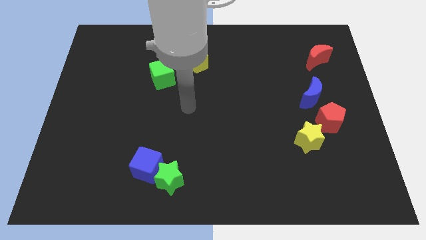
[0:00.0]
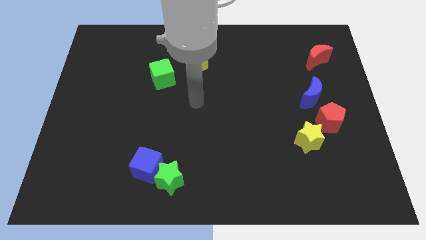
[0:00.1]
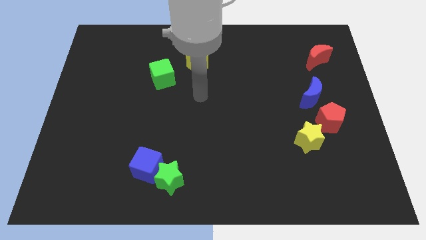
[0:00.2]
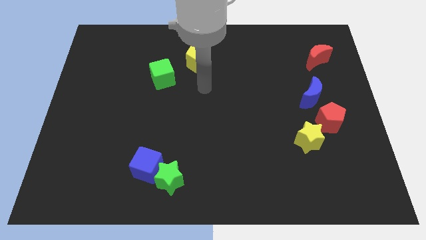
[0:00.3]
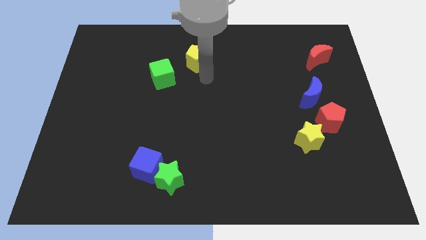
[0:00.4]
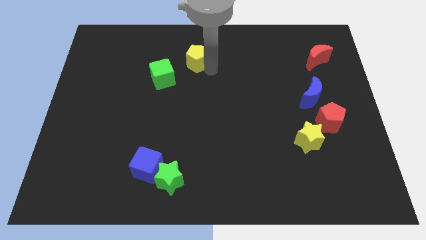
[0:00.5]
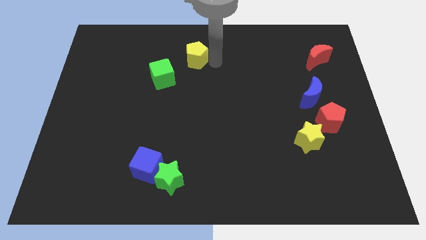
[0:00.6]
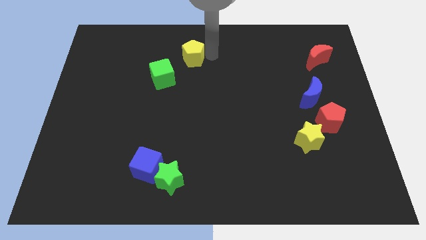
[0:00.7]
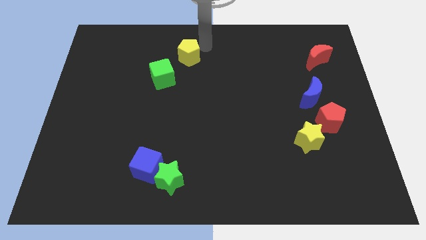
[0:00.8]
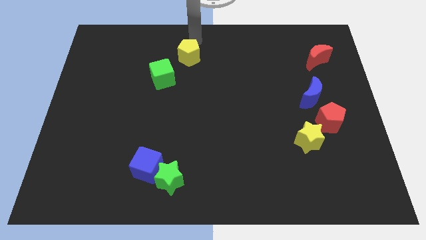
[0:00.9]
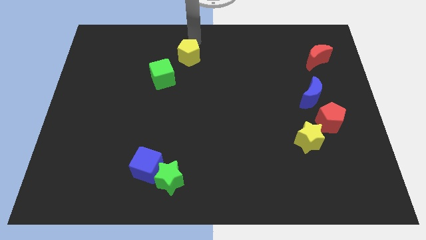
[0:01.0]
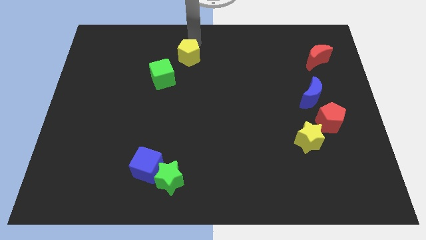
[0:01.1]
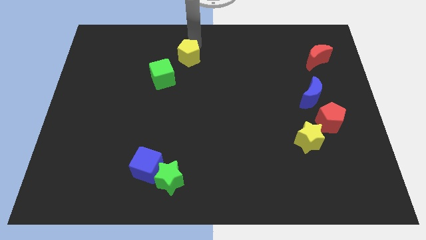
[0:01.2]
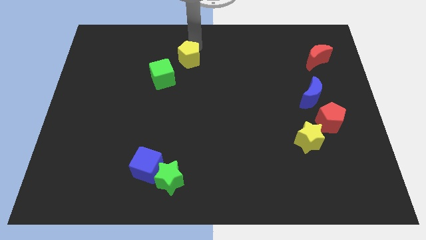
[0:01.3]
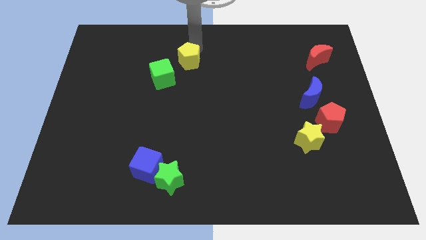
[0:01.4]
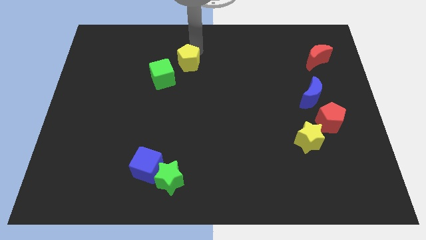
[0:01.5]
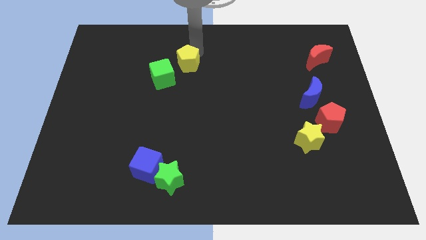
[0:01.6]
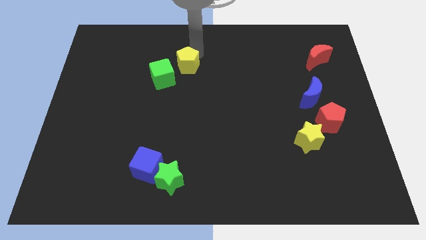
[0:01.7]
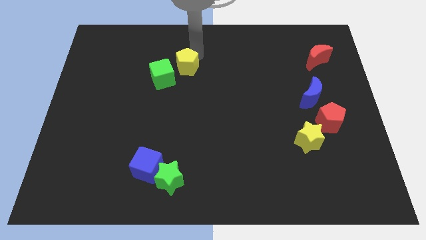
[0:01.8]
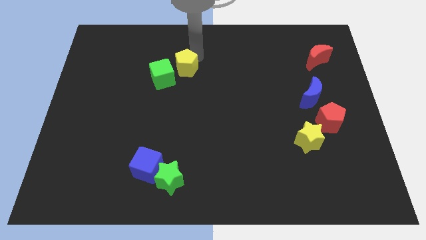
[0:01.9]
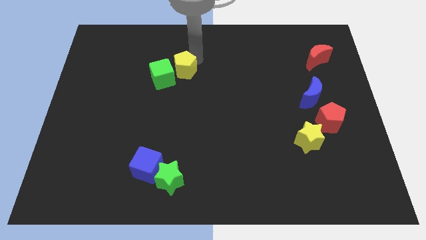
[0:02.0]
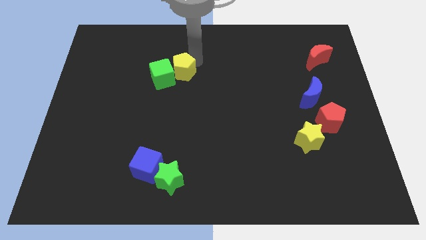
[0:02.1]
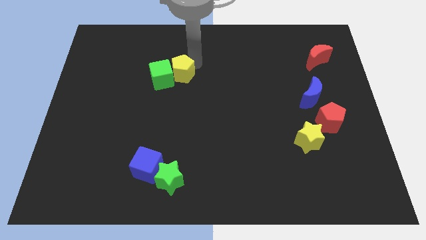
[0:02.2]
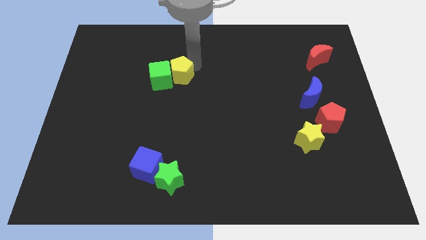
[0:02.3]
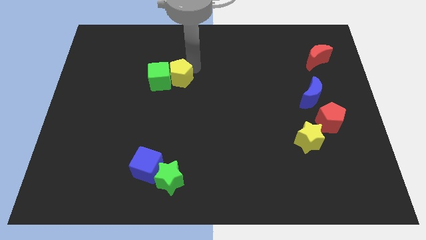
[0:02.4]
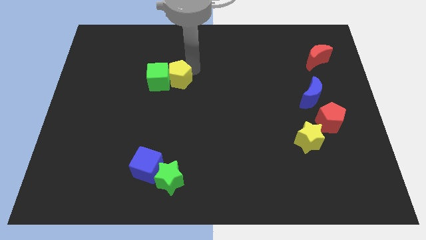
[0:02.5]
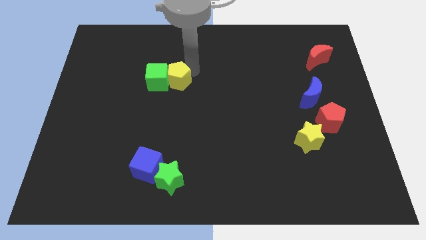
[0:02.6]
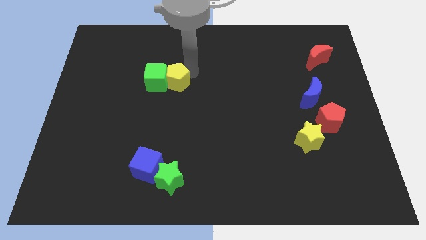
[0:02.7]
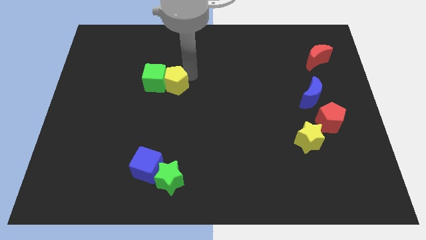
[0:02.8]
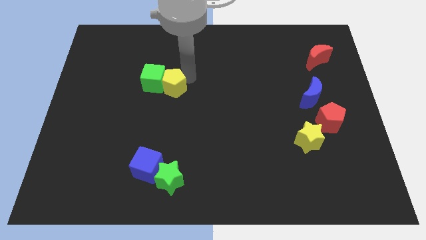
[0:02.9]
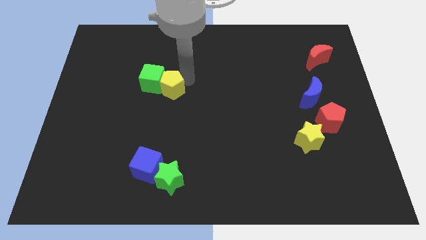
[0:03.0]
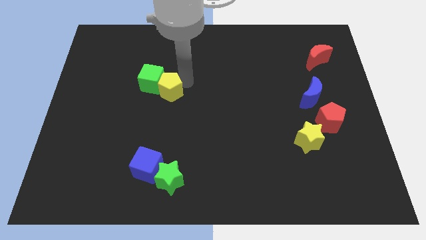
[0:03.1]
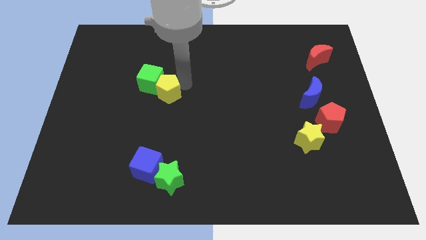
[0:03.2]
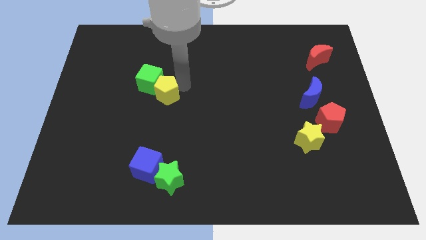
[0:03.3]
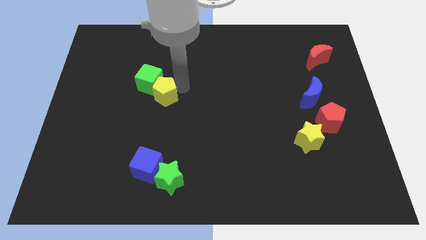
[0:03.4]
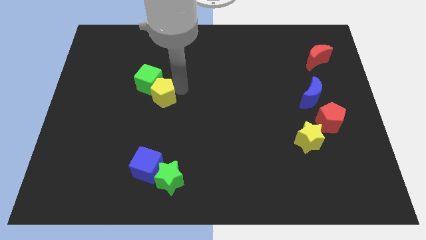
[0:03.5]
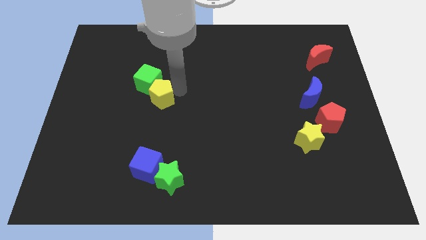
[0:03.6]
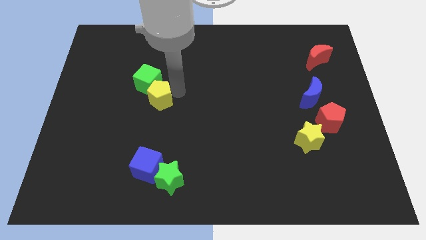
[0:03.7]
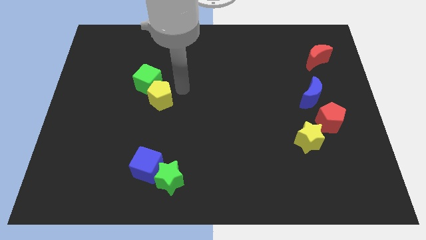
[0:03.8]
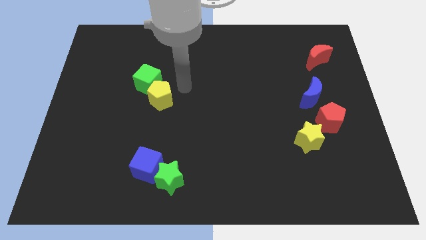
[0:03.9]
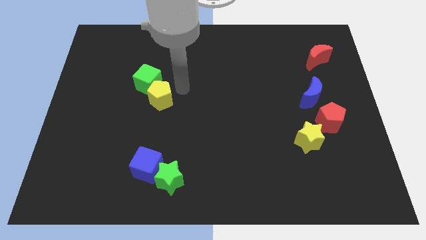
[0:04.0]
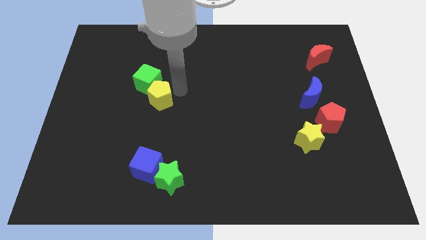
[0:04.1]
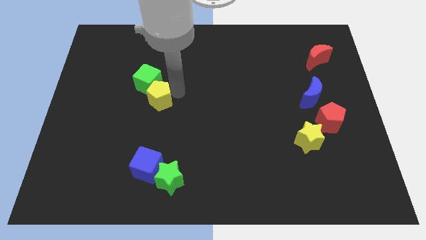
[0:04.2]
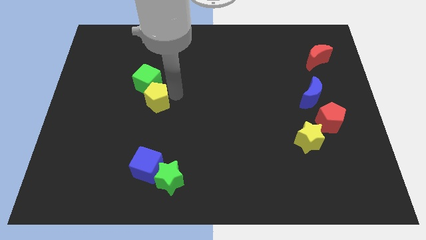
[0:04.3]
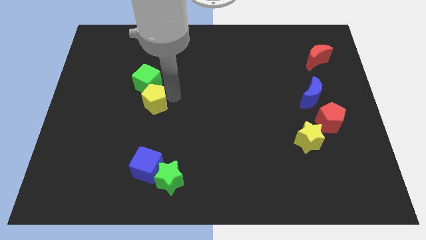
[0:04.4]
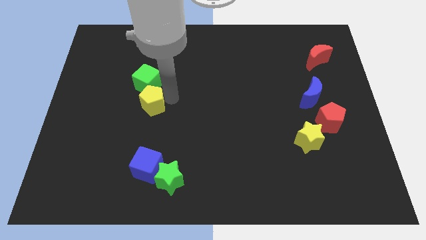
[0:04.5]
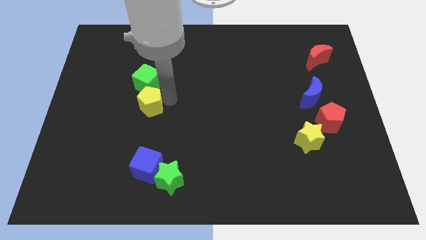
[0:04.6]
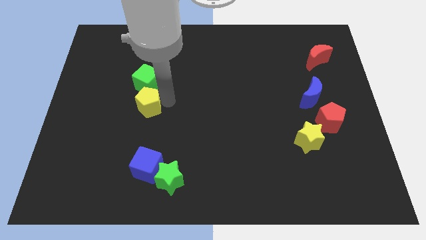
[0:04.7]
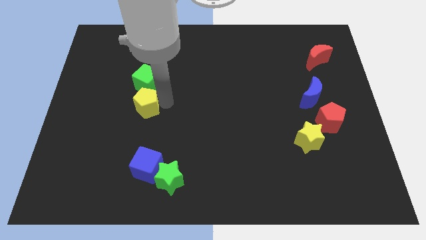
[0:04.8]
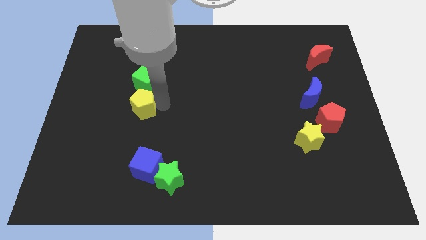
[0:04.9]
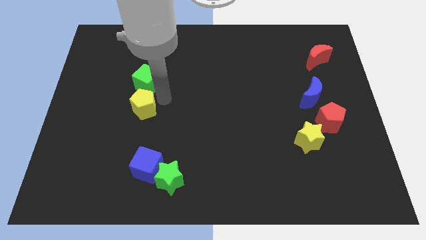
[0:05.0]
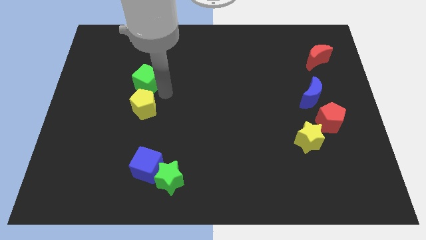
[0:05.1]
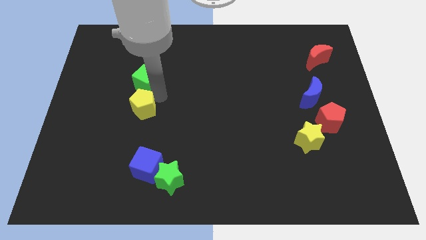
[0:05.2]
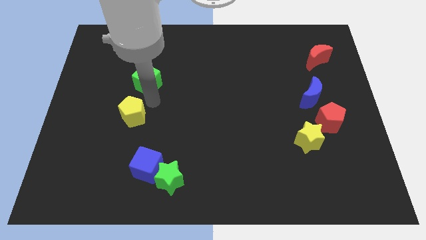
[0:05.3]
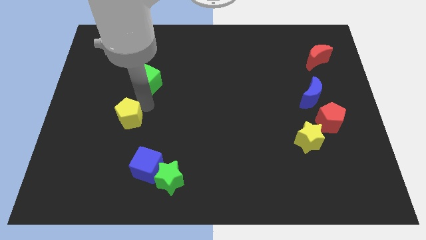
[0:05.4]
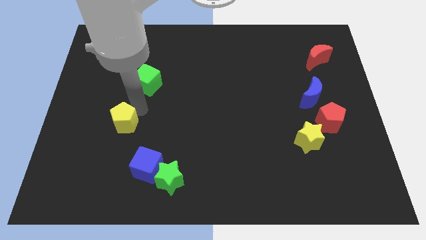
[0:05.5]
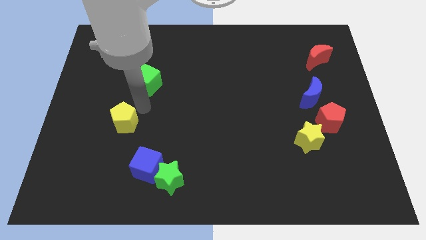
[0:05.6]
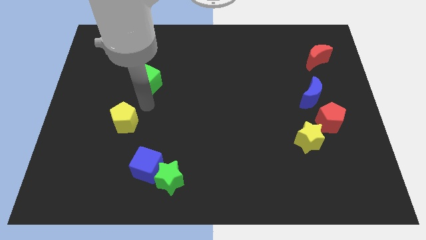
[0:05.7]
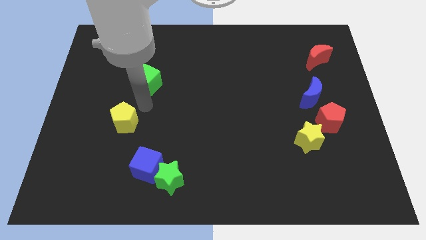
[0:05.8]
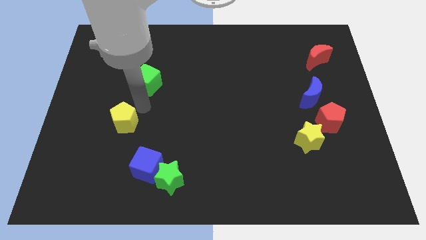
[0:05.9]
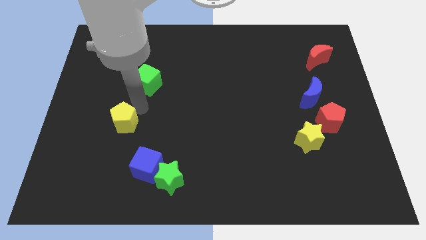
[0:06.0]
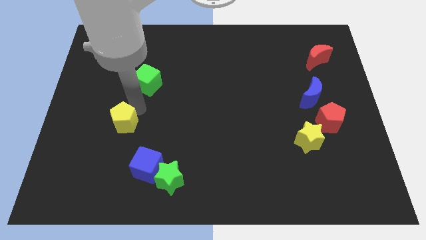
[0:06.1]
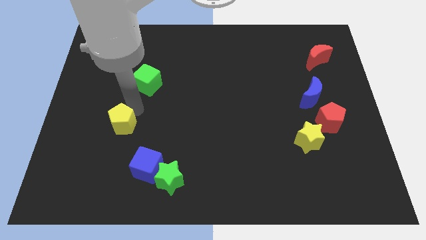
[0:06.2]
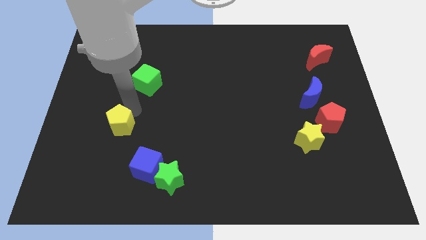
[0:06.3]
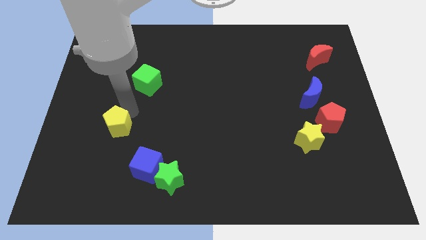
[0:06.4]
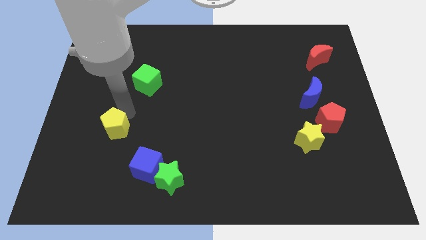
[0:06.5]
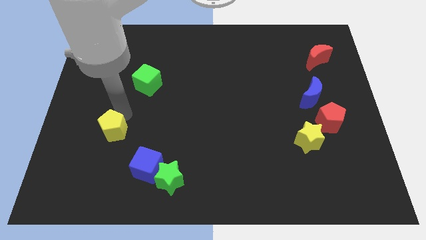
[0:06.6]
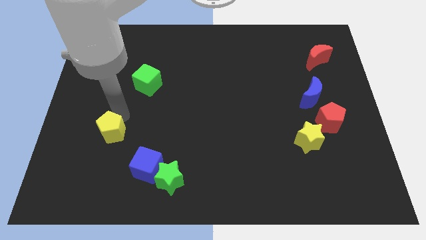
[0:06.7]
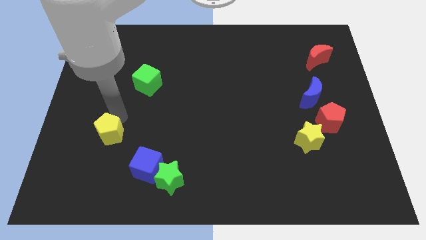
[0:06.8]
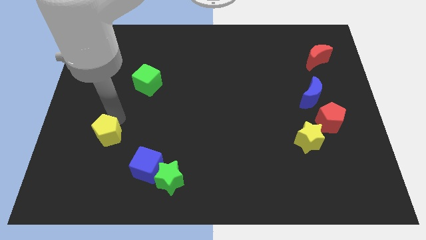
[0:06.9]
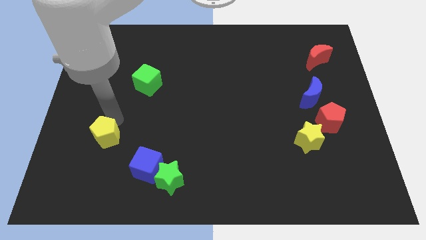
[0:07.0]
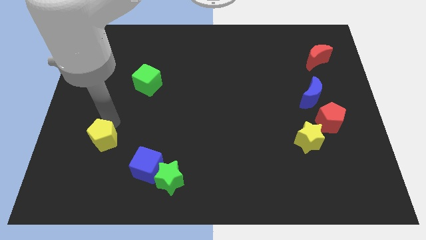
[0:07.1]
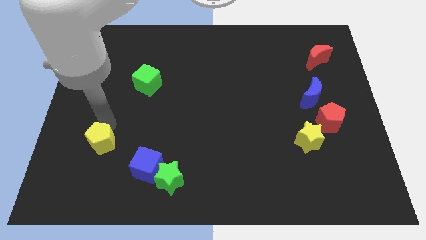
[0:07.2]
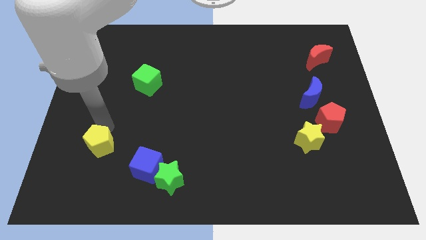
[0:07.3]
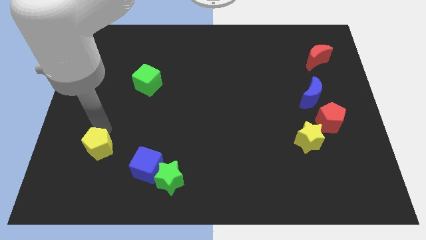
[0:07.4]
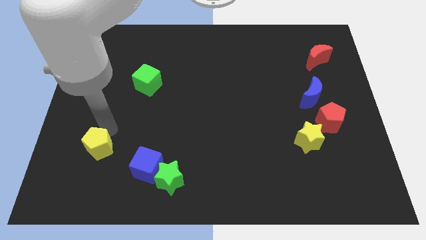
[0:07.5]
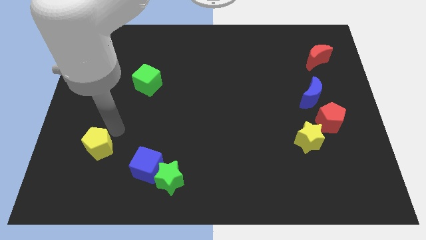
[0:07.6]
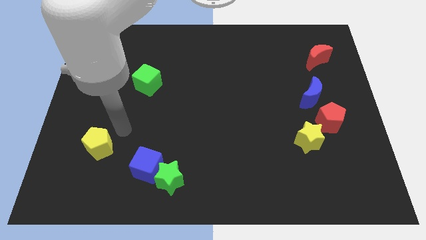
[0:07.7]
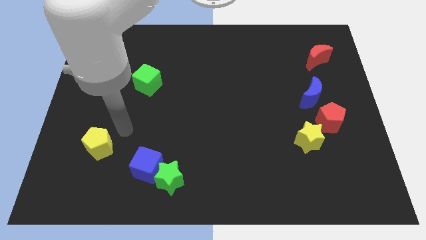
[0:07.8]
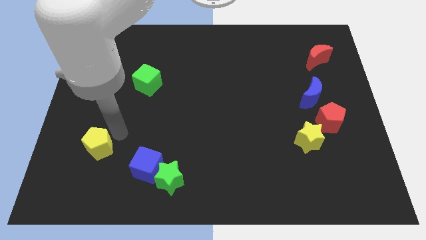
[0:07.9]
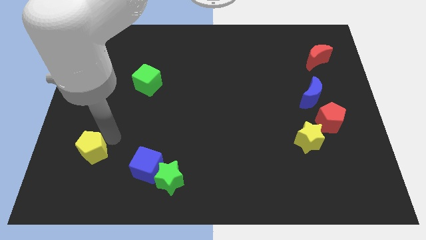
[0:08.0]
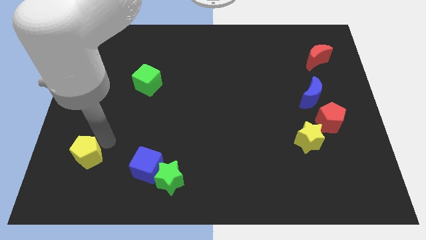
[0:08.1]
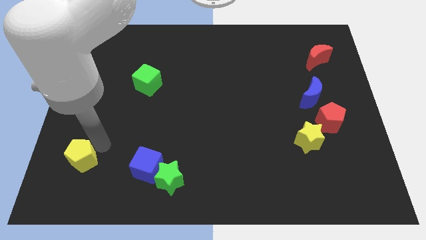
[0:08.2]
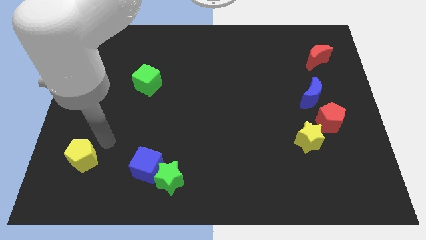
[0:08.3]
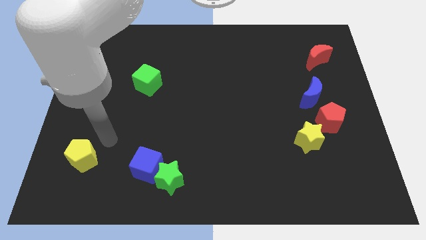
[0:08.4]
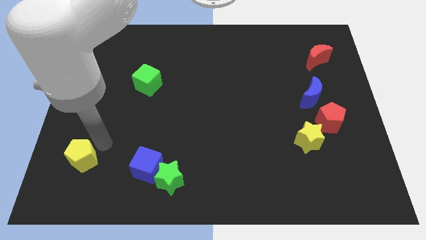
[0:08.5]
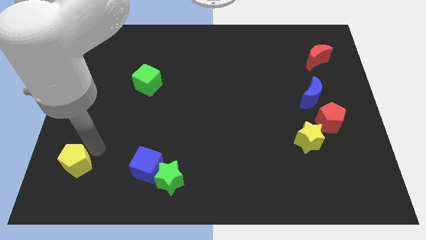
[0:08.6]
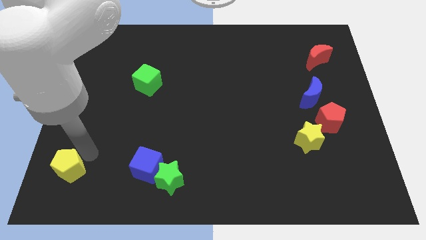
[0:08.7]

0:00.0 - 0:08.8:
slide the yellow pentagon to the bottom left
